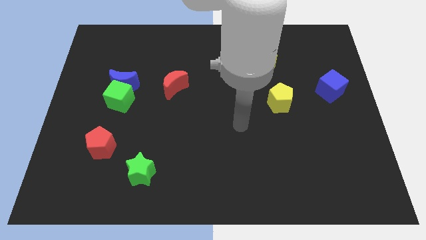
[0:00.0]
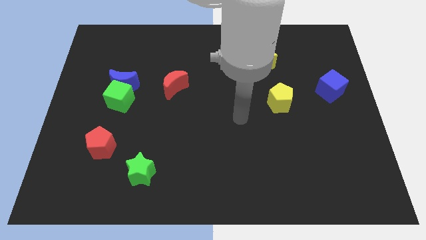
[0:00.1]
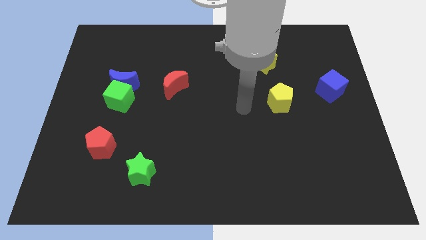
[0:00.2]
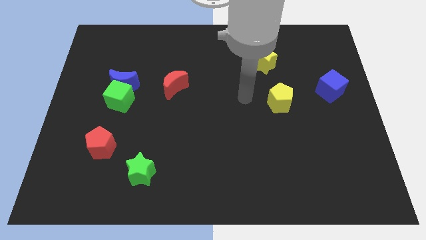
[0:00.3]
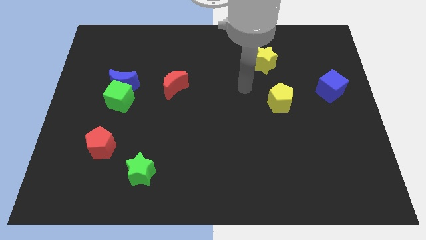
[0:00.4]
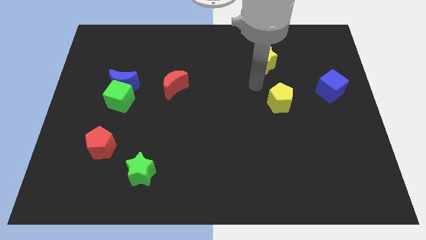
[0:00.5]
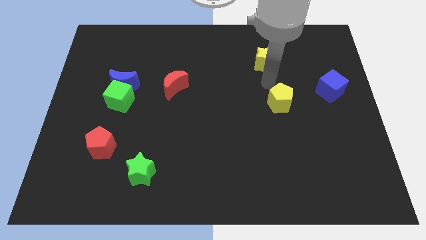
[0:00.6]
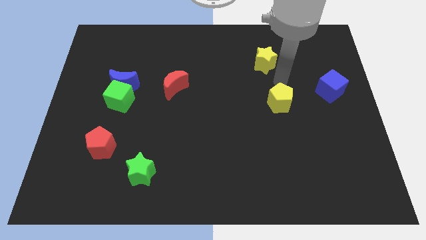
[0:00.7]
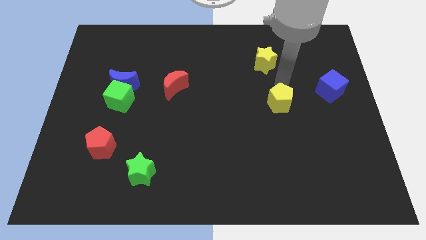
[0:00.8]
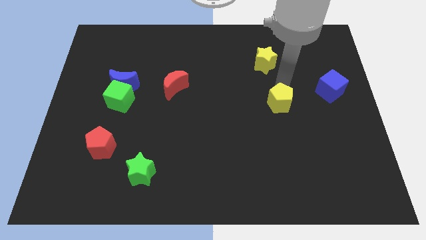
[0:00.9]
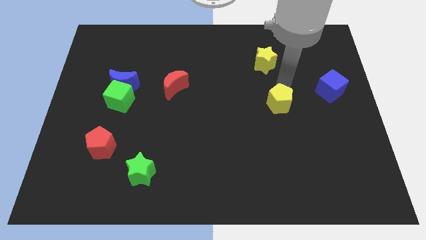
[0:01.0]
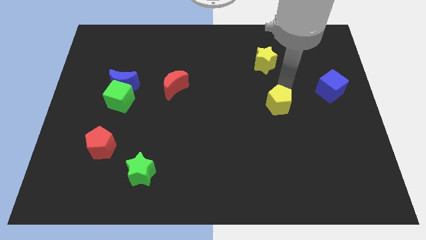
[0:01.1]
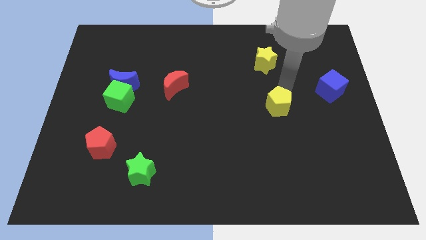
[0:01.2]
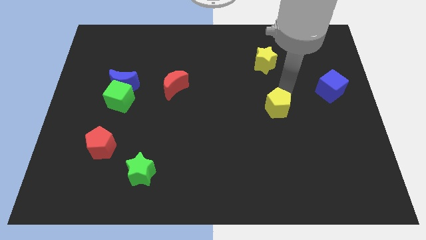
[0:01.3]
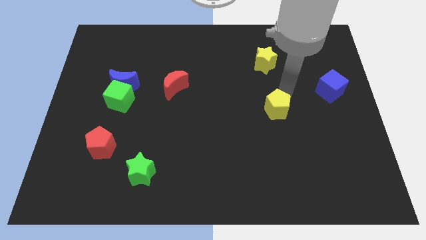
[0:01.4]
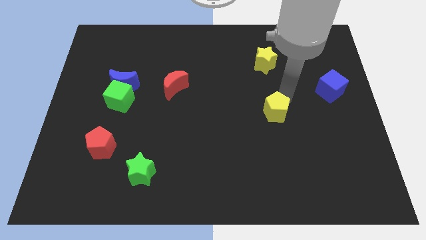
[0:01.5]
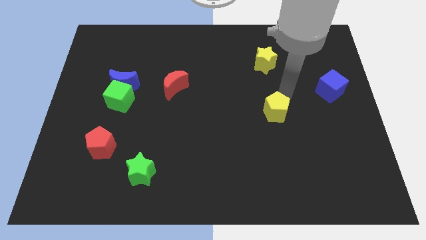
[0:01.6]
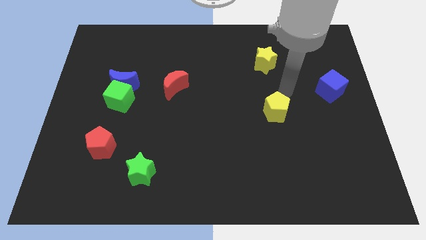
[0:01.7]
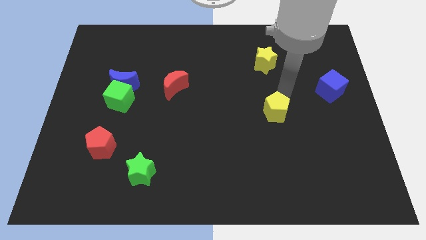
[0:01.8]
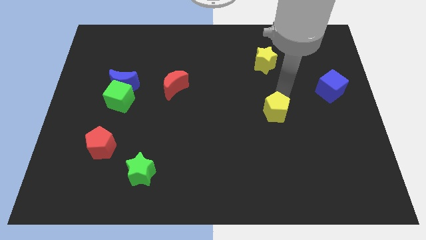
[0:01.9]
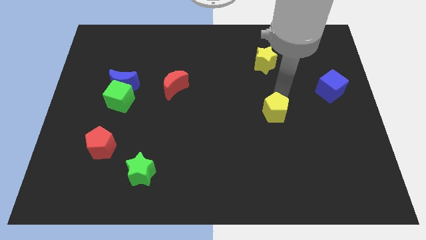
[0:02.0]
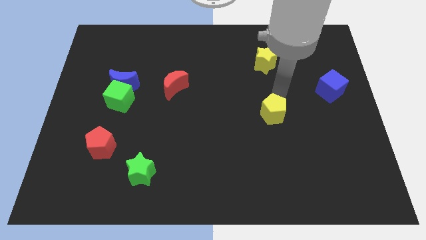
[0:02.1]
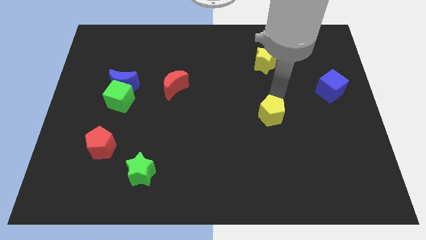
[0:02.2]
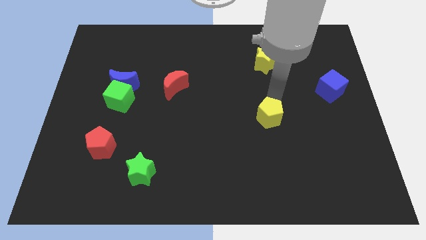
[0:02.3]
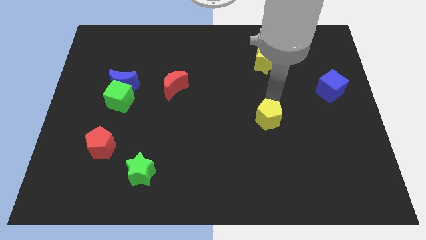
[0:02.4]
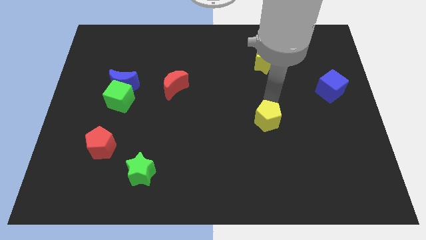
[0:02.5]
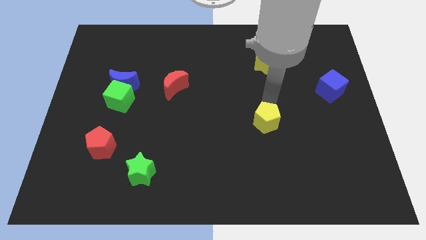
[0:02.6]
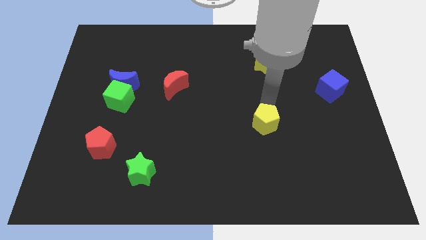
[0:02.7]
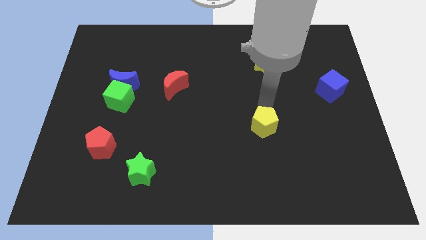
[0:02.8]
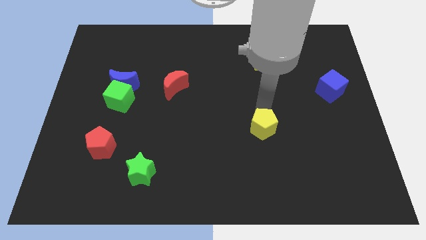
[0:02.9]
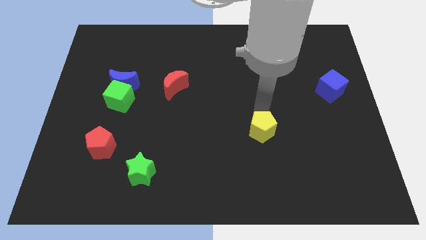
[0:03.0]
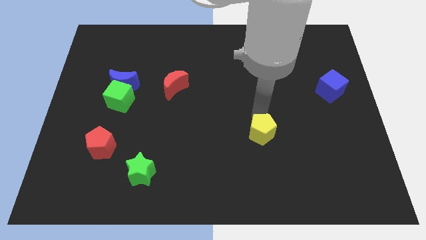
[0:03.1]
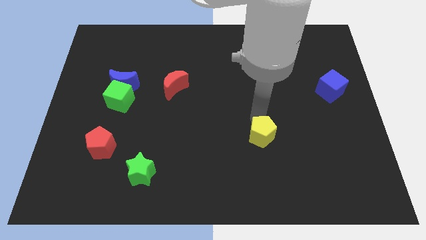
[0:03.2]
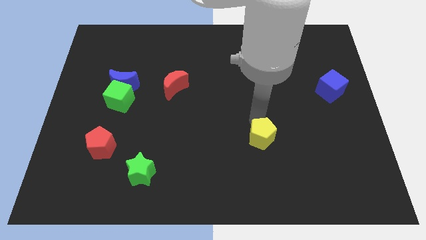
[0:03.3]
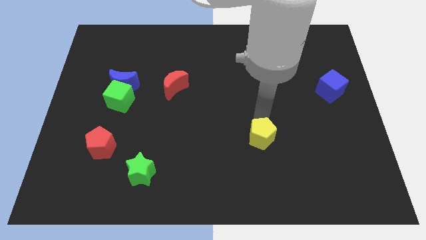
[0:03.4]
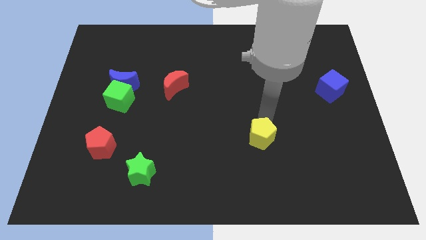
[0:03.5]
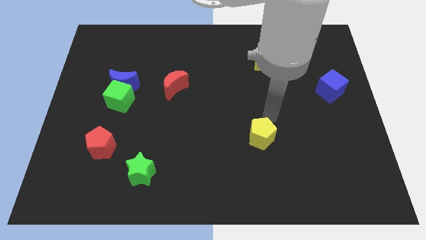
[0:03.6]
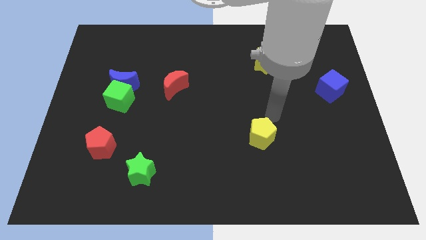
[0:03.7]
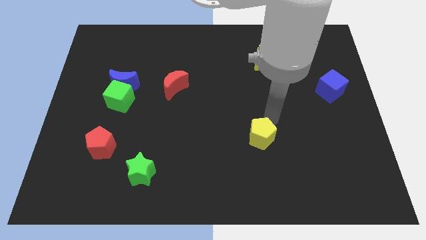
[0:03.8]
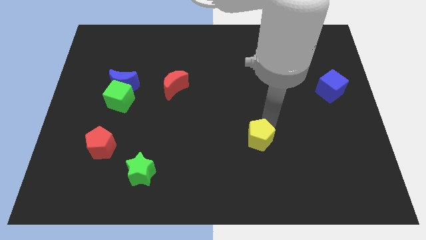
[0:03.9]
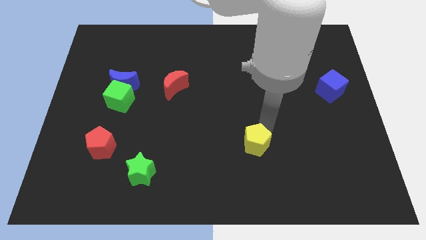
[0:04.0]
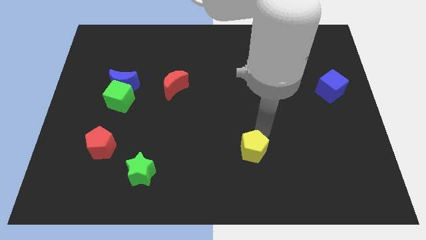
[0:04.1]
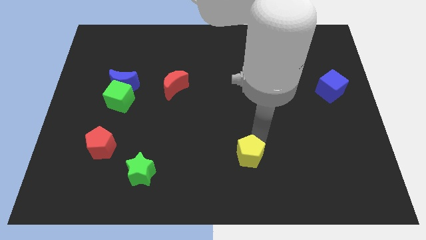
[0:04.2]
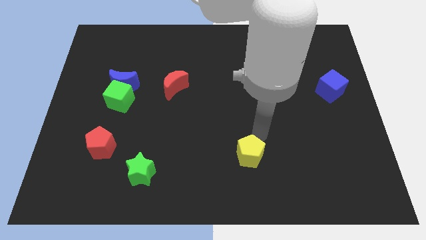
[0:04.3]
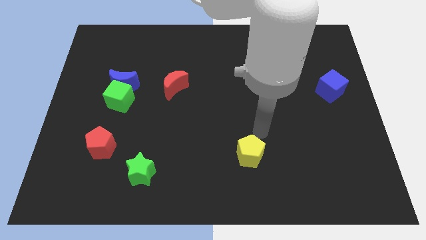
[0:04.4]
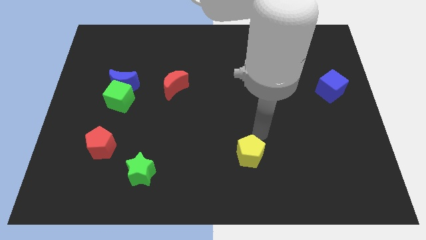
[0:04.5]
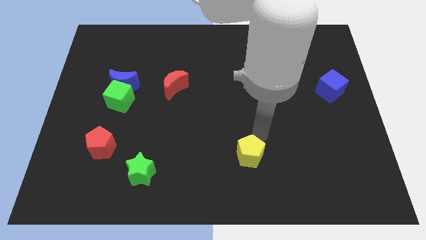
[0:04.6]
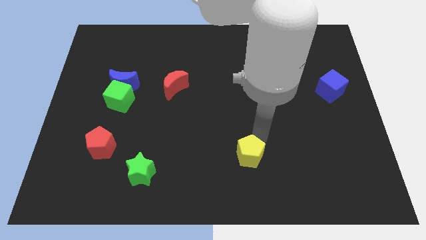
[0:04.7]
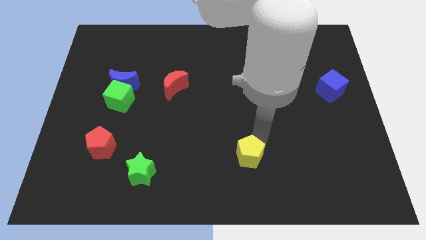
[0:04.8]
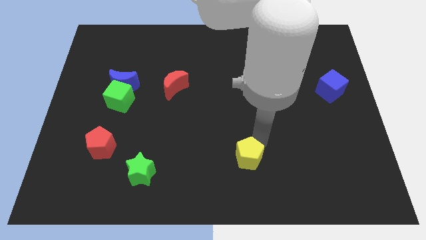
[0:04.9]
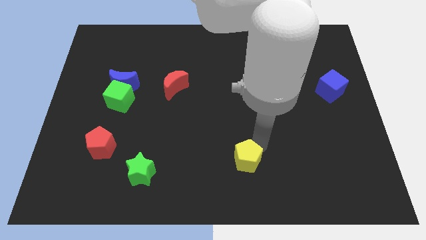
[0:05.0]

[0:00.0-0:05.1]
slide the yellow pentagon to the bottom side

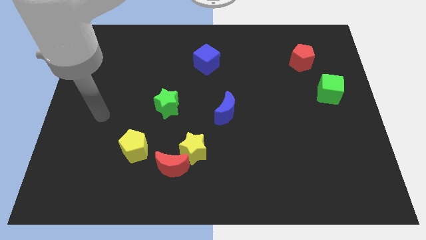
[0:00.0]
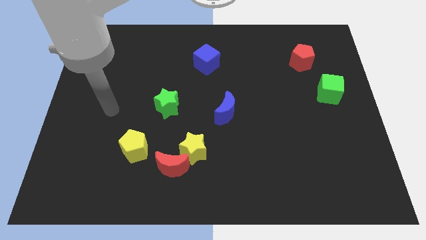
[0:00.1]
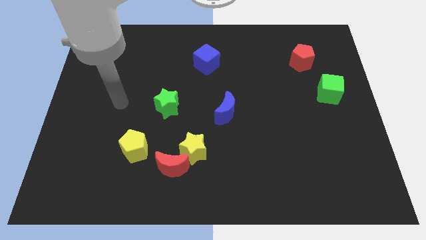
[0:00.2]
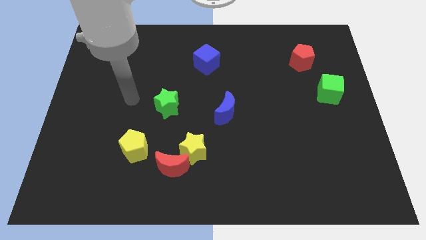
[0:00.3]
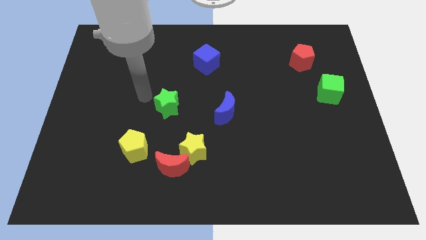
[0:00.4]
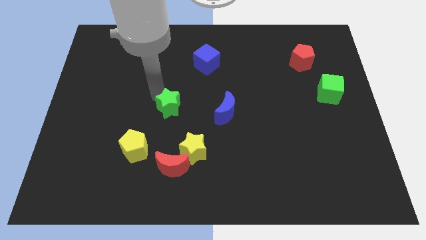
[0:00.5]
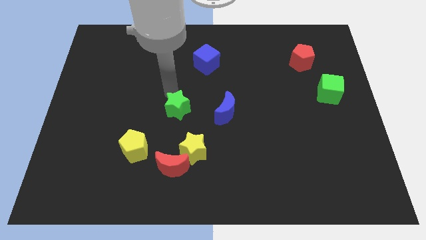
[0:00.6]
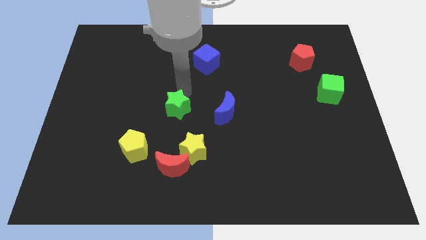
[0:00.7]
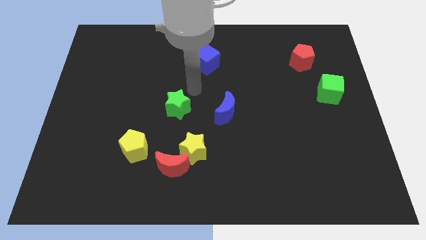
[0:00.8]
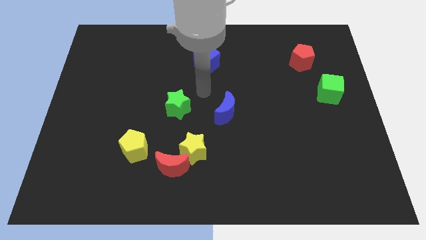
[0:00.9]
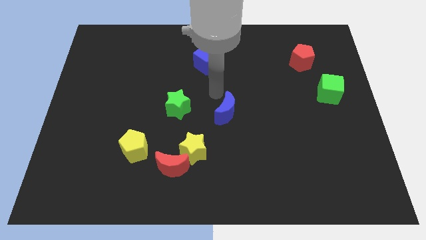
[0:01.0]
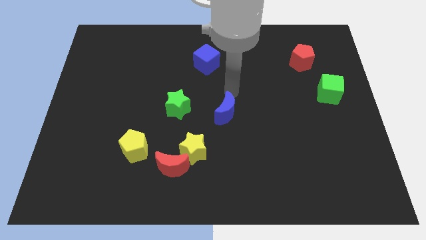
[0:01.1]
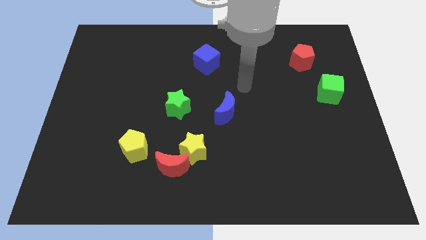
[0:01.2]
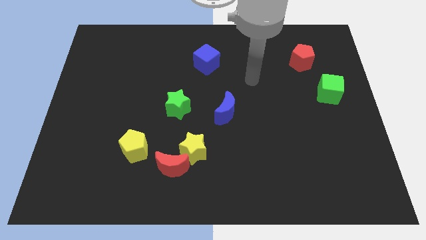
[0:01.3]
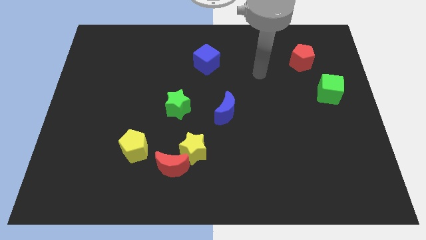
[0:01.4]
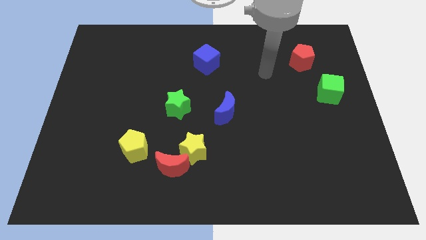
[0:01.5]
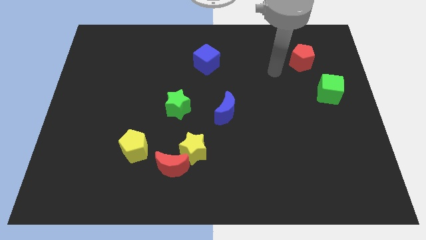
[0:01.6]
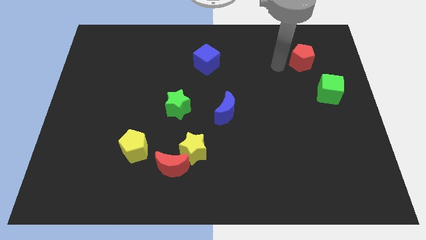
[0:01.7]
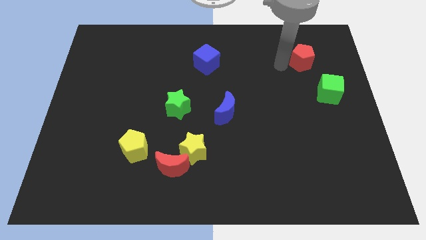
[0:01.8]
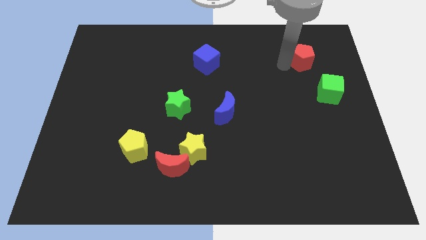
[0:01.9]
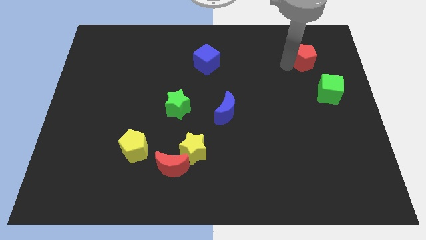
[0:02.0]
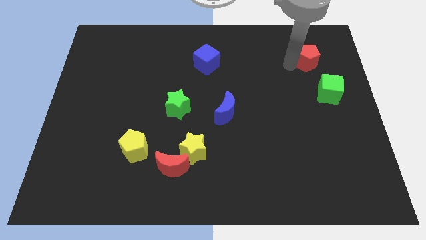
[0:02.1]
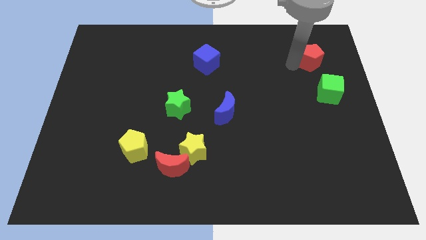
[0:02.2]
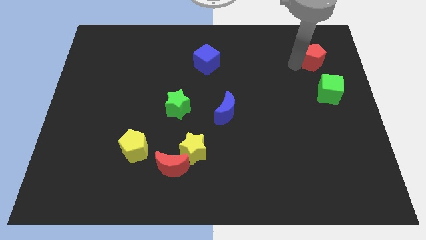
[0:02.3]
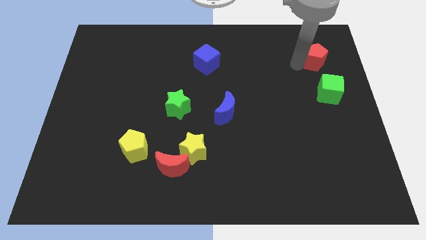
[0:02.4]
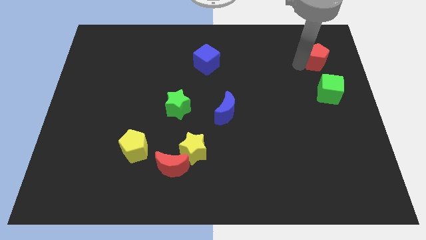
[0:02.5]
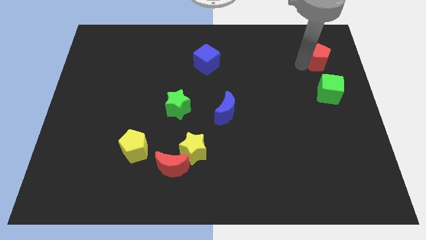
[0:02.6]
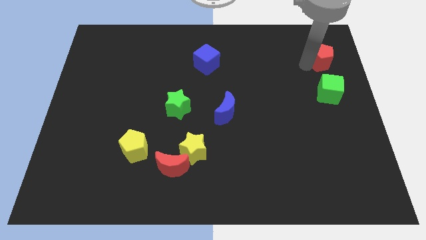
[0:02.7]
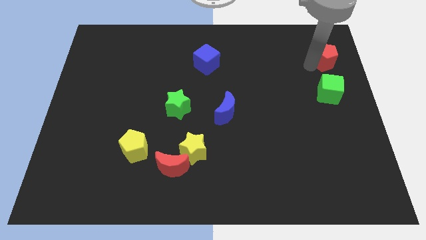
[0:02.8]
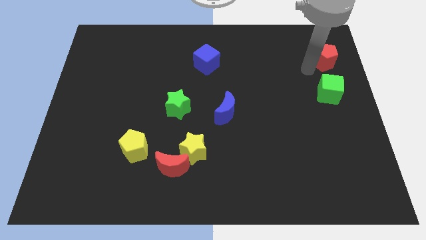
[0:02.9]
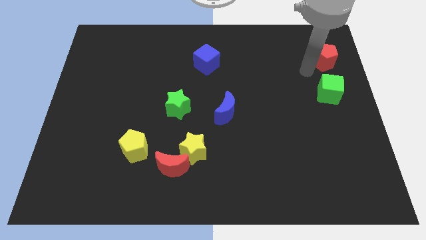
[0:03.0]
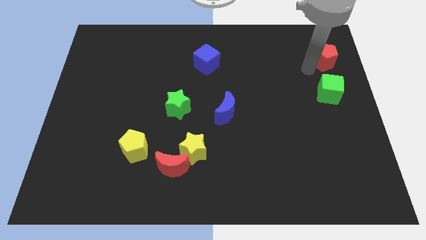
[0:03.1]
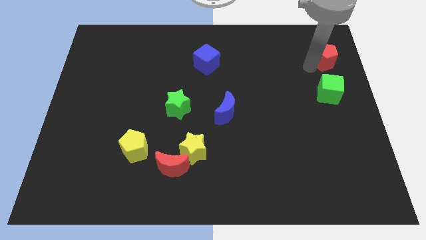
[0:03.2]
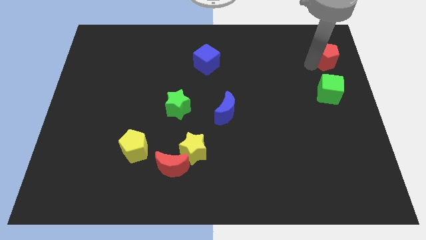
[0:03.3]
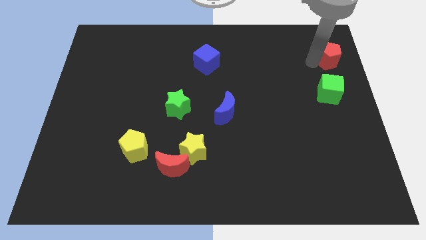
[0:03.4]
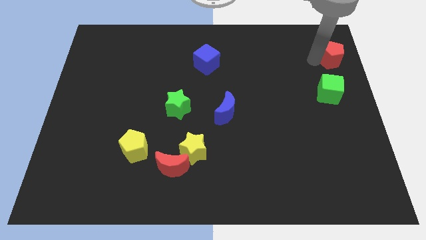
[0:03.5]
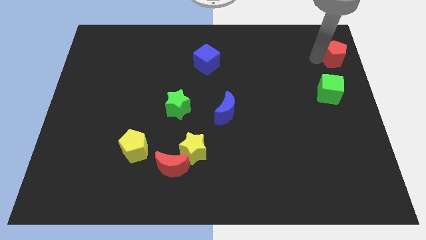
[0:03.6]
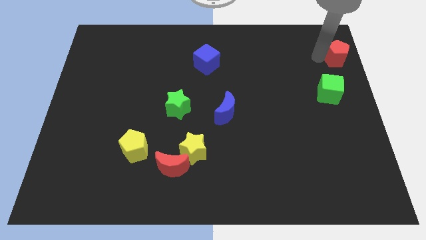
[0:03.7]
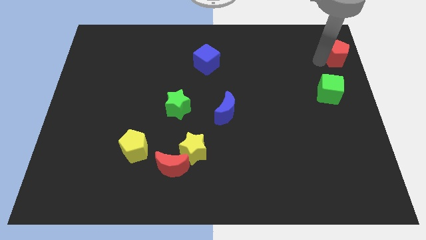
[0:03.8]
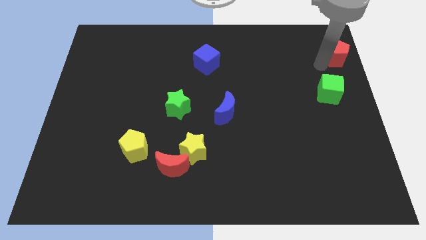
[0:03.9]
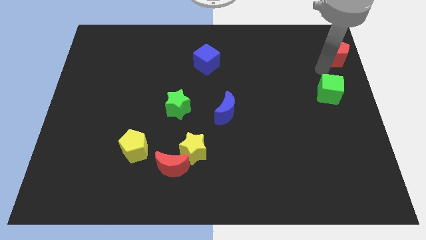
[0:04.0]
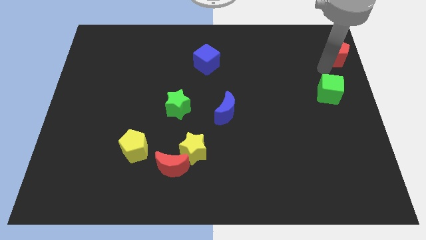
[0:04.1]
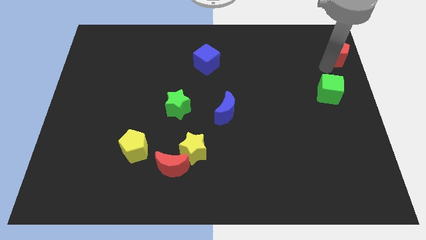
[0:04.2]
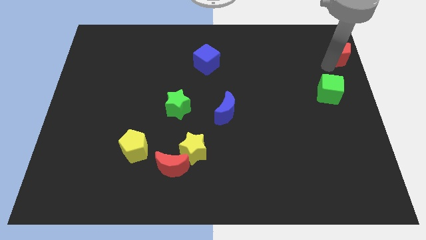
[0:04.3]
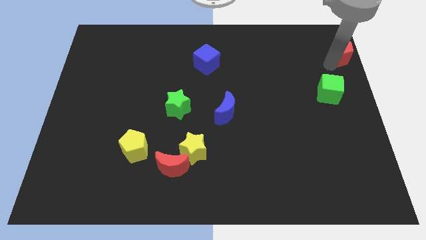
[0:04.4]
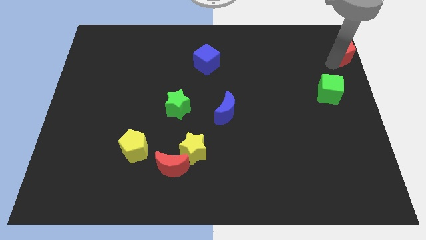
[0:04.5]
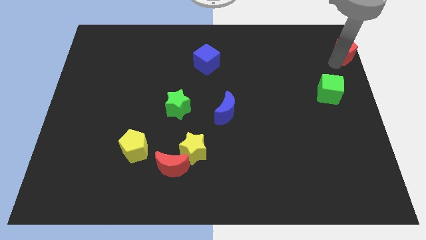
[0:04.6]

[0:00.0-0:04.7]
move the red pentagon to the top right of the board
